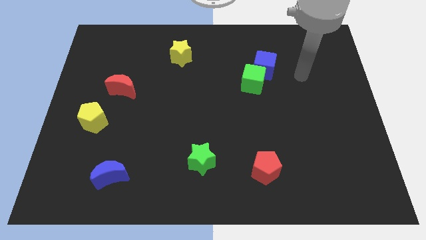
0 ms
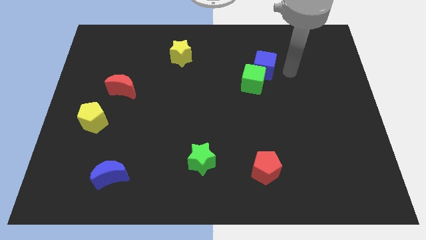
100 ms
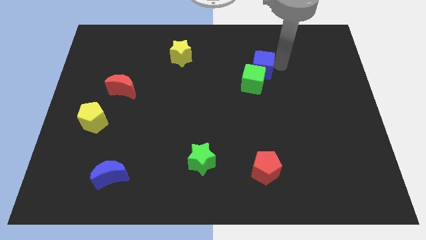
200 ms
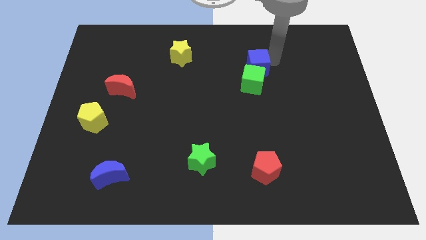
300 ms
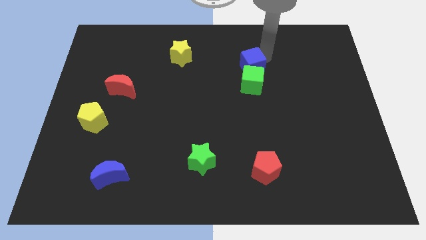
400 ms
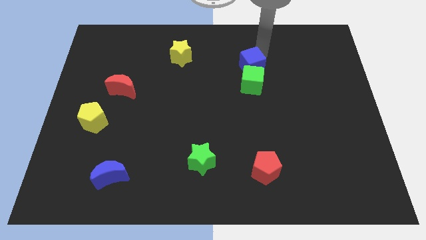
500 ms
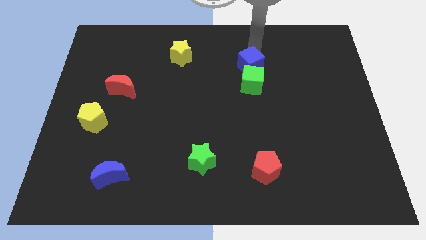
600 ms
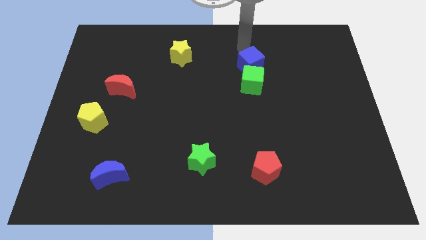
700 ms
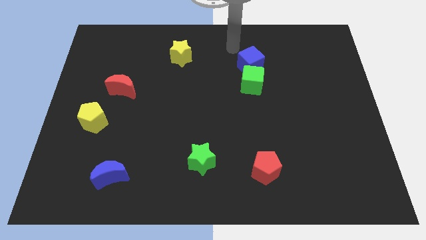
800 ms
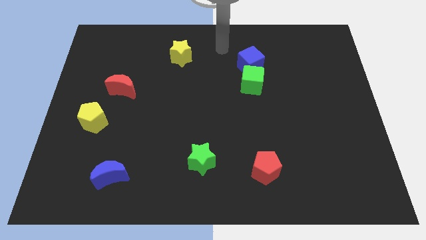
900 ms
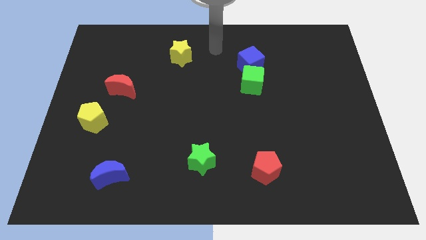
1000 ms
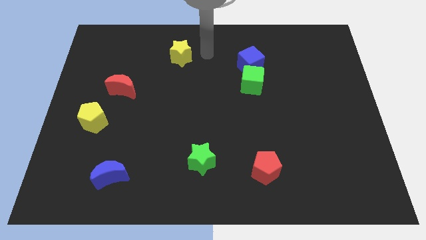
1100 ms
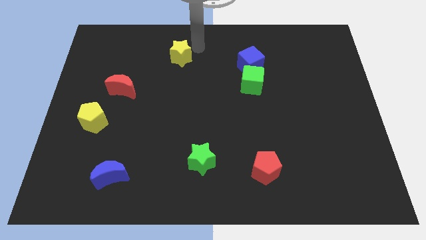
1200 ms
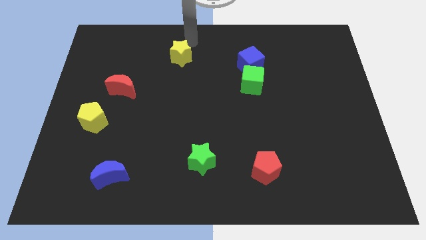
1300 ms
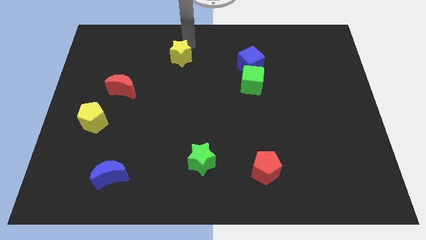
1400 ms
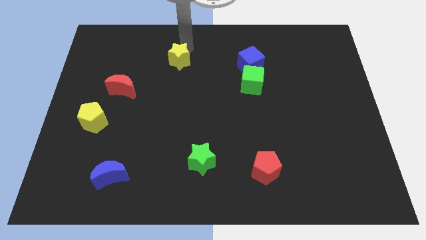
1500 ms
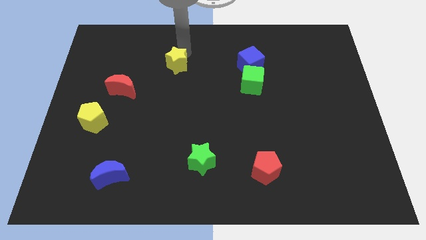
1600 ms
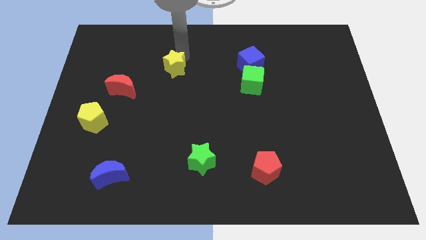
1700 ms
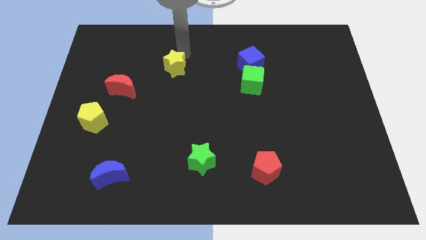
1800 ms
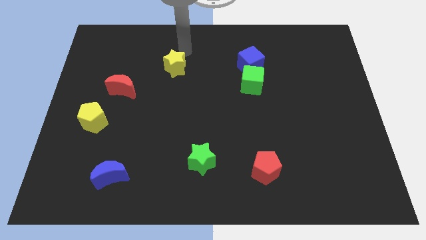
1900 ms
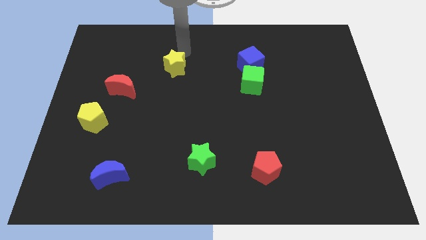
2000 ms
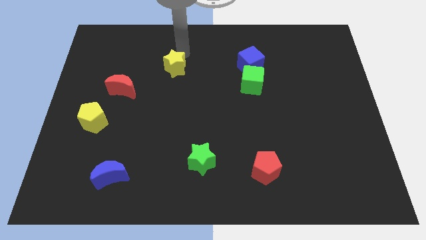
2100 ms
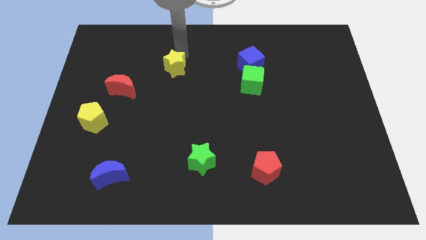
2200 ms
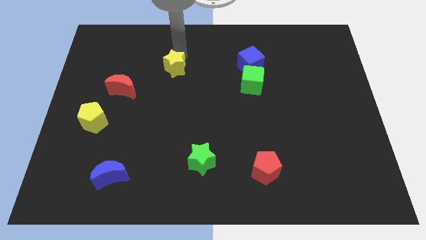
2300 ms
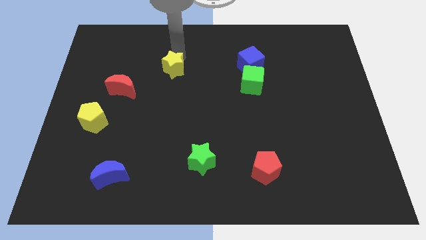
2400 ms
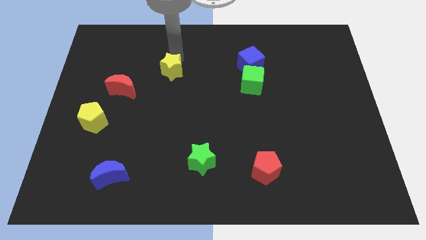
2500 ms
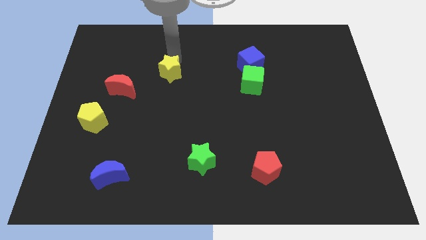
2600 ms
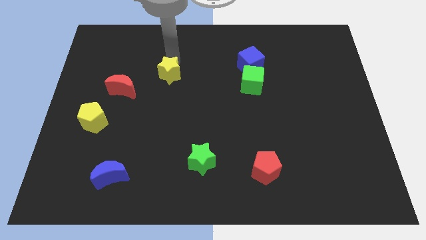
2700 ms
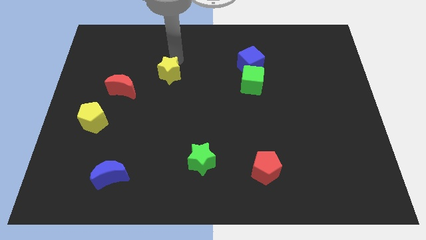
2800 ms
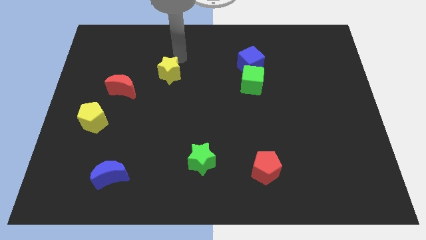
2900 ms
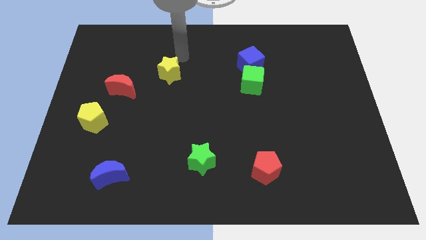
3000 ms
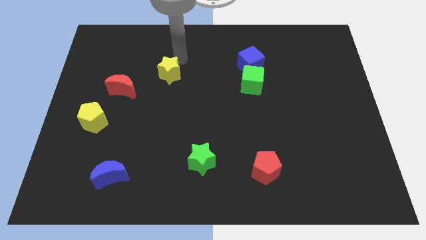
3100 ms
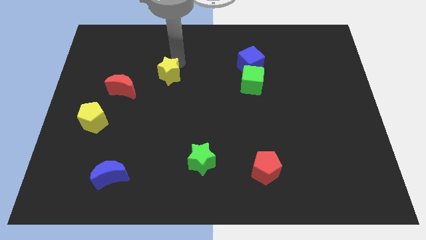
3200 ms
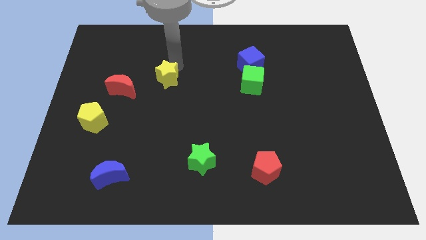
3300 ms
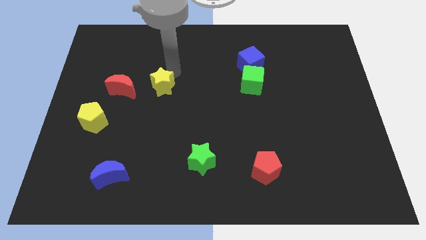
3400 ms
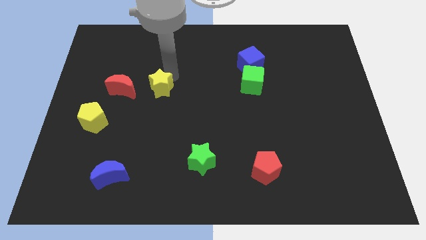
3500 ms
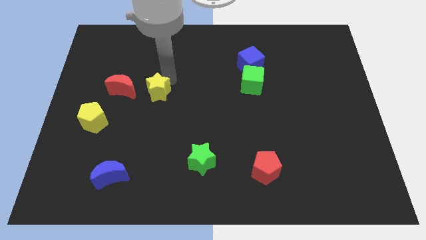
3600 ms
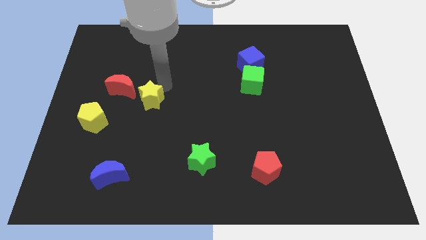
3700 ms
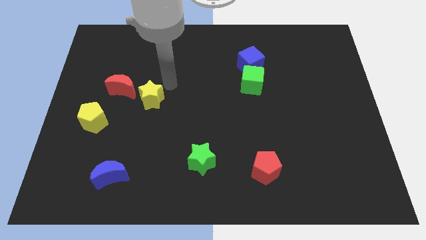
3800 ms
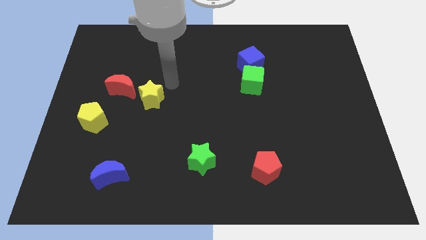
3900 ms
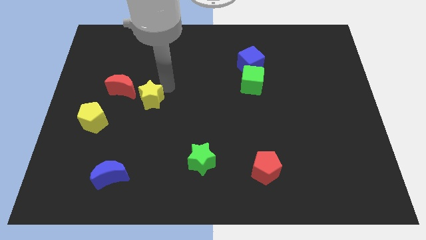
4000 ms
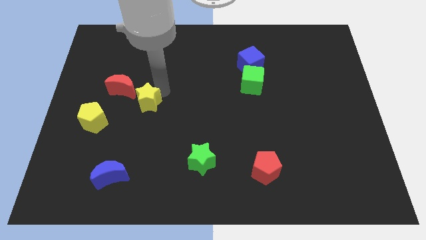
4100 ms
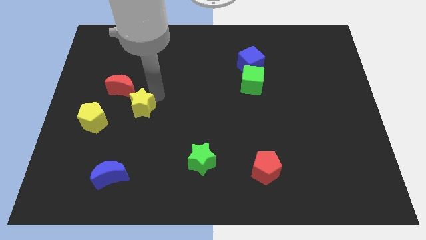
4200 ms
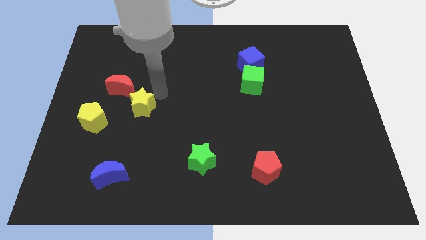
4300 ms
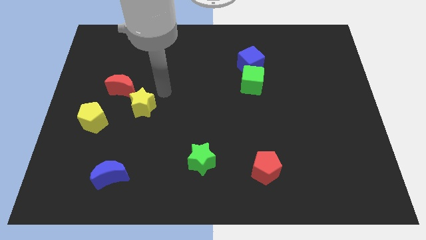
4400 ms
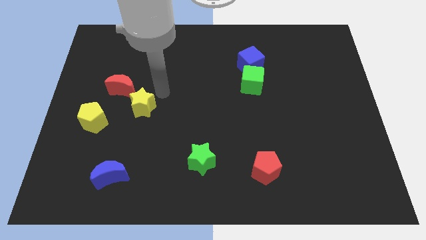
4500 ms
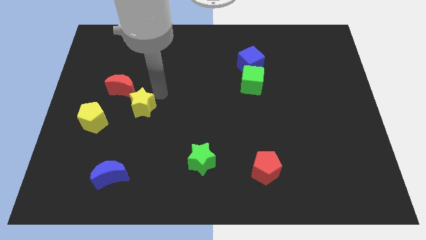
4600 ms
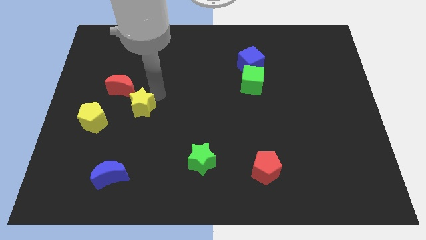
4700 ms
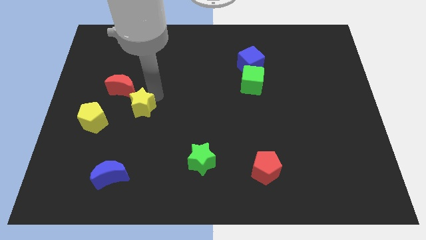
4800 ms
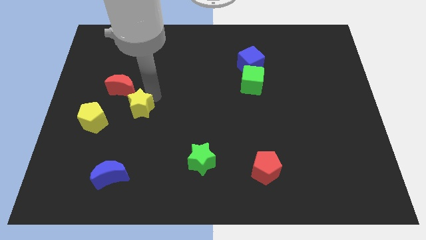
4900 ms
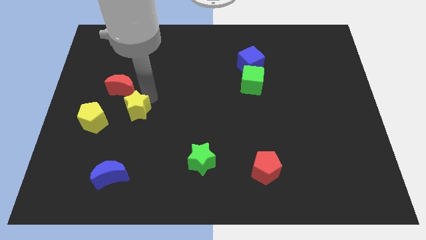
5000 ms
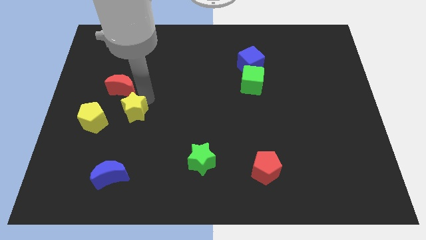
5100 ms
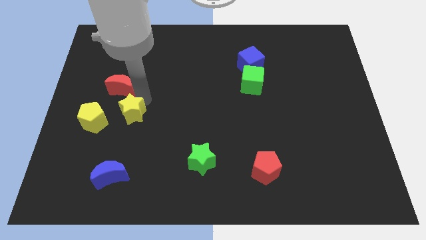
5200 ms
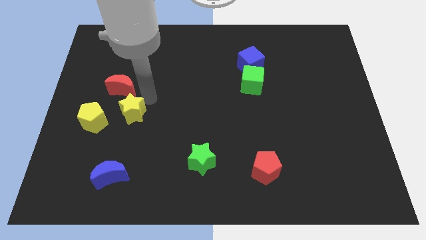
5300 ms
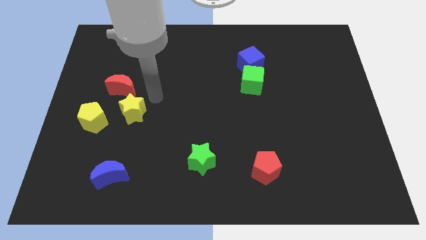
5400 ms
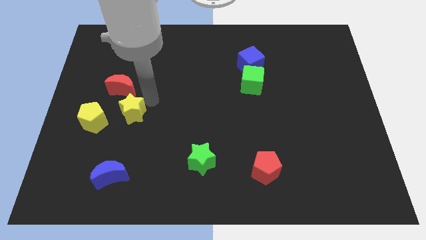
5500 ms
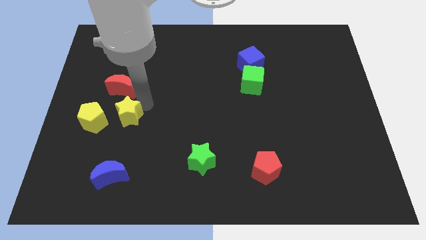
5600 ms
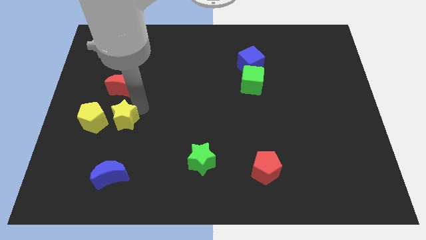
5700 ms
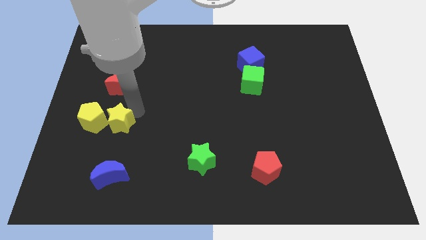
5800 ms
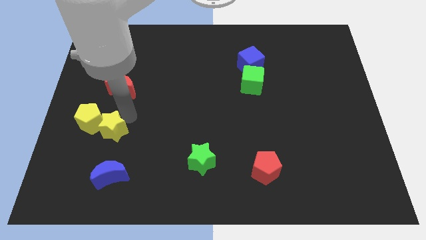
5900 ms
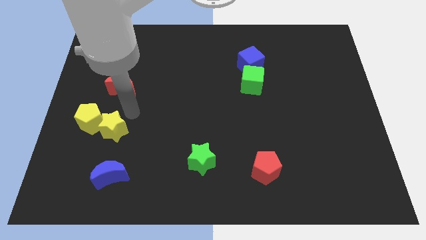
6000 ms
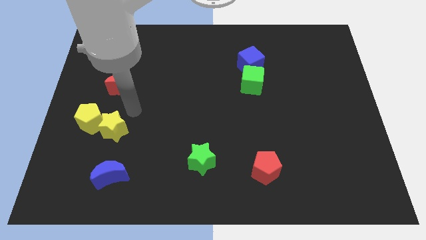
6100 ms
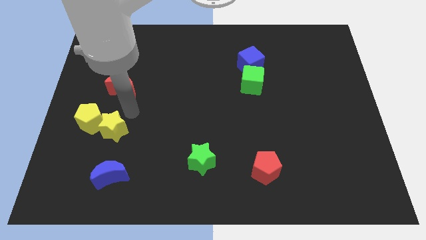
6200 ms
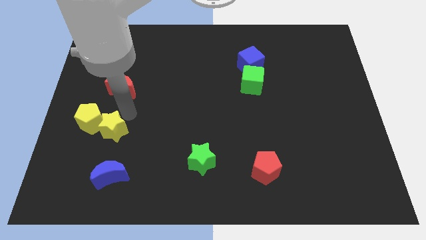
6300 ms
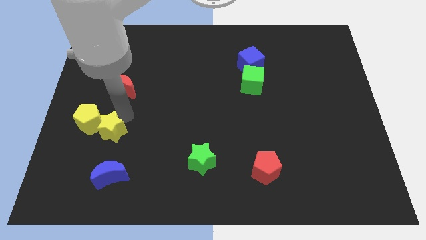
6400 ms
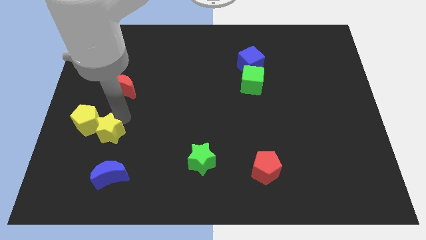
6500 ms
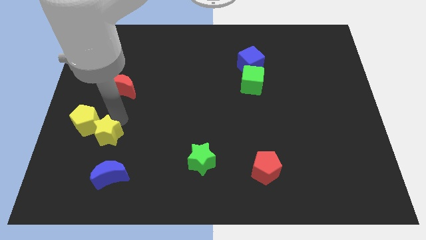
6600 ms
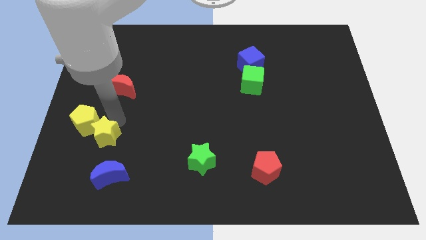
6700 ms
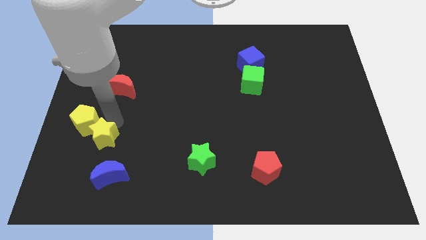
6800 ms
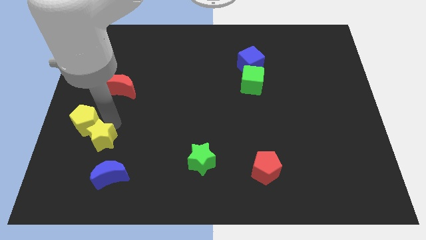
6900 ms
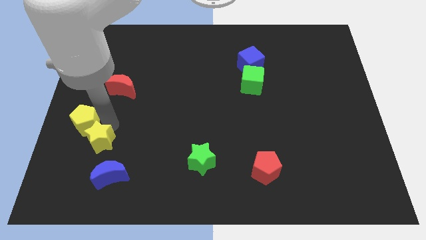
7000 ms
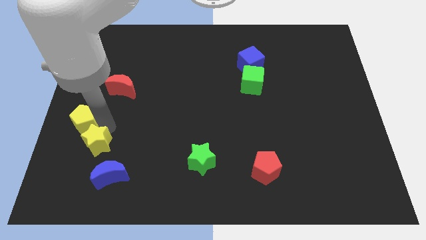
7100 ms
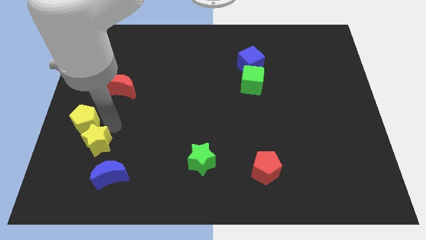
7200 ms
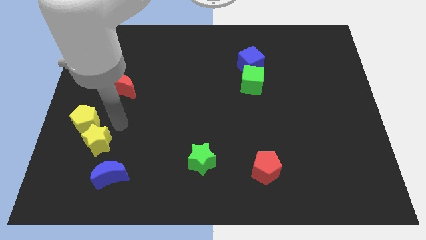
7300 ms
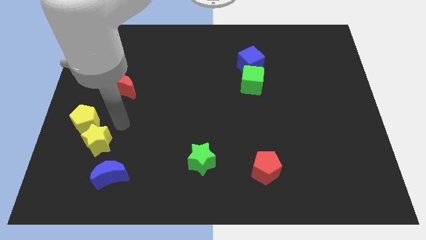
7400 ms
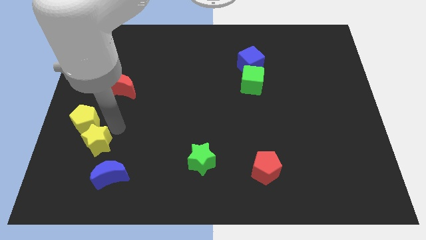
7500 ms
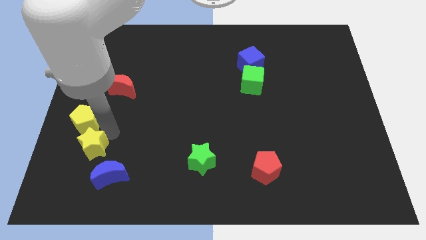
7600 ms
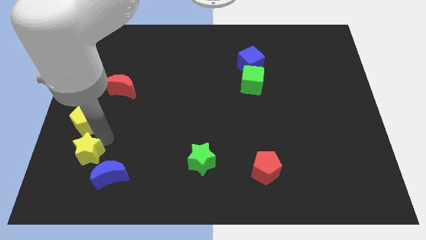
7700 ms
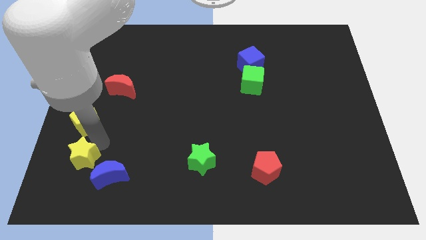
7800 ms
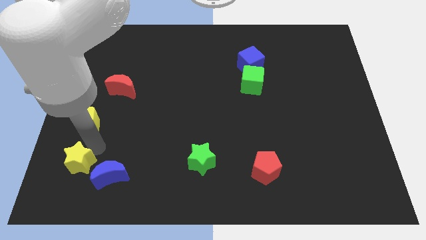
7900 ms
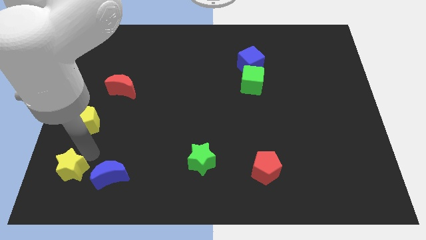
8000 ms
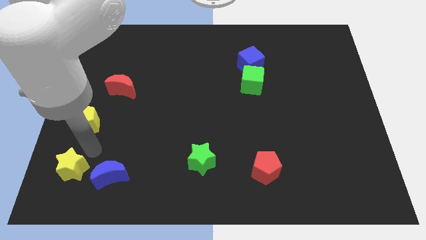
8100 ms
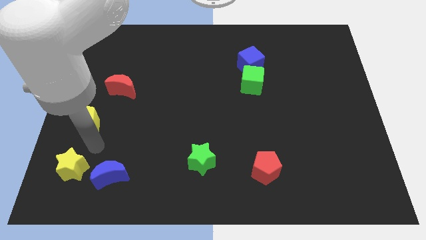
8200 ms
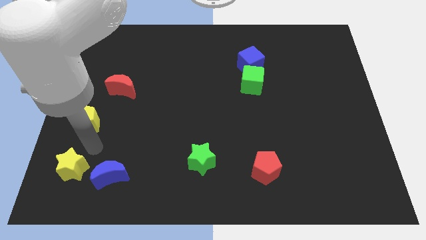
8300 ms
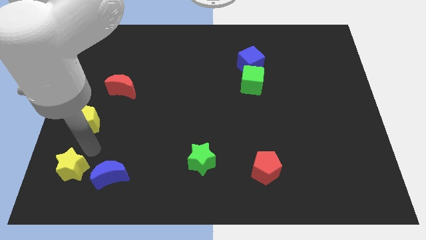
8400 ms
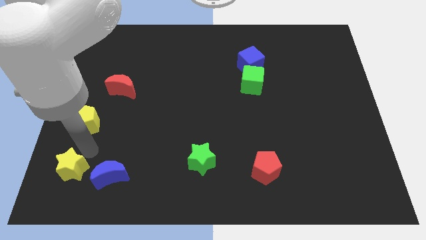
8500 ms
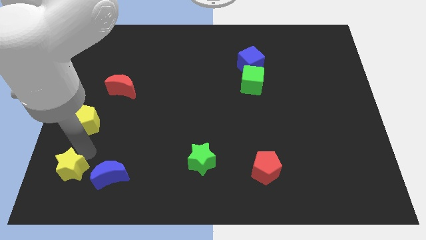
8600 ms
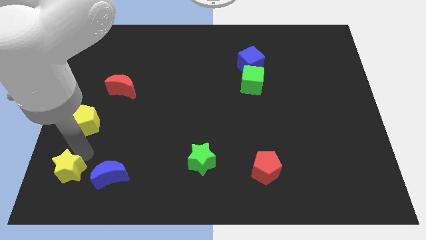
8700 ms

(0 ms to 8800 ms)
put the yellow star to the lower left corner
